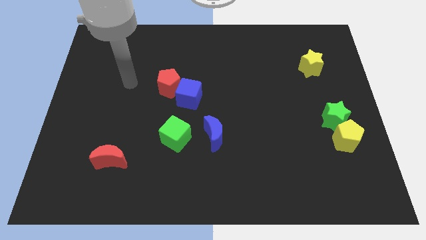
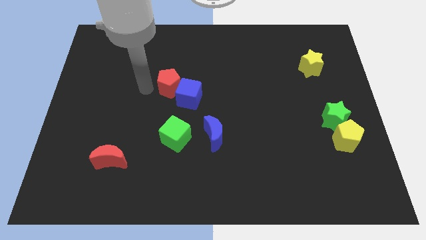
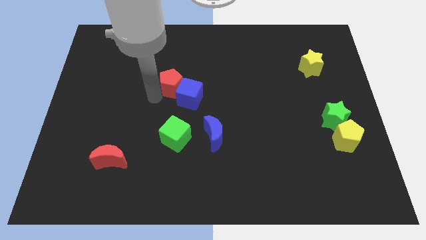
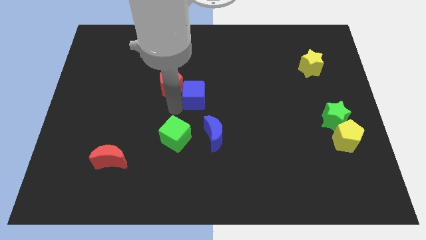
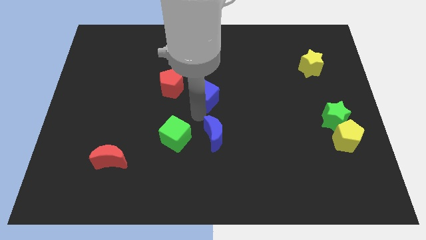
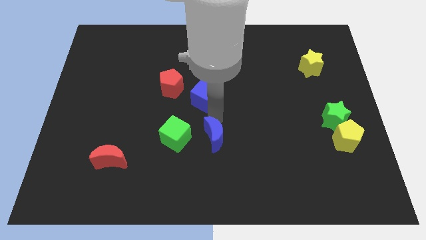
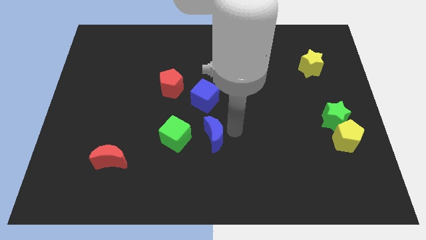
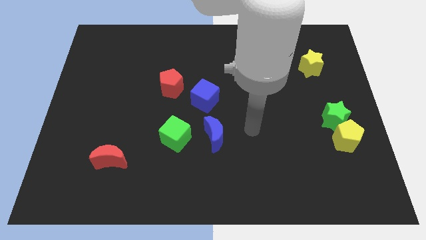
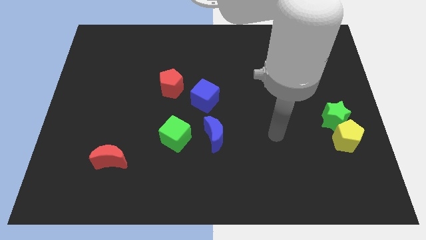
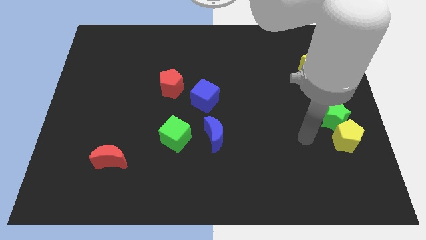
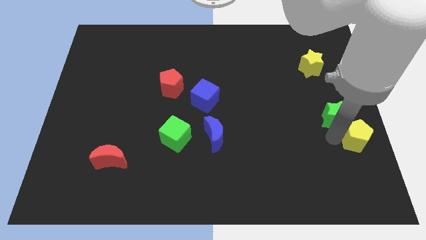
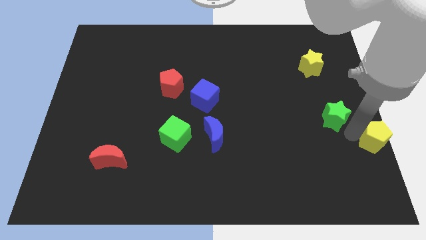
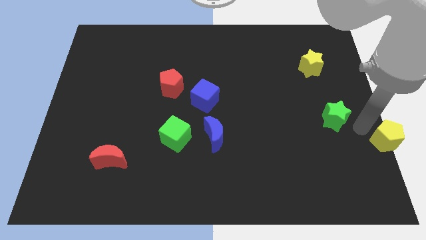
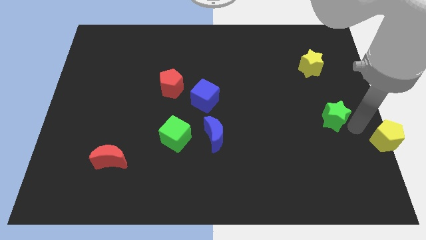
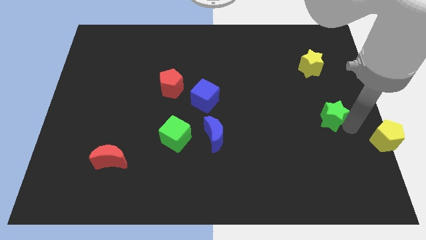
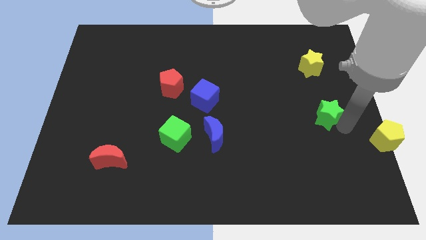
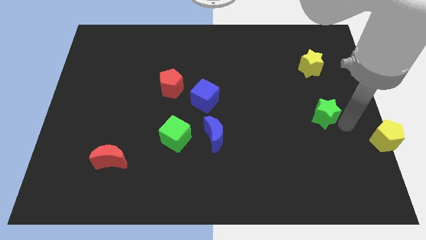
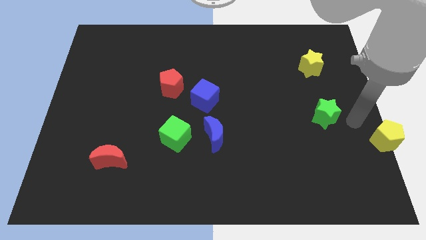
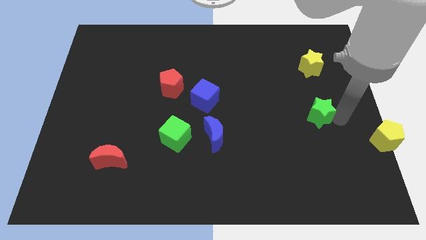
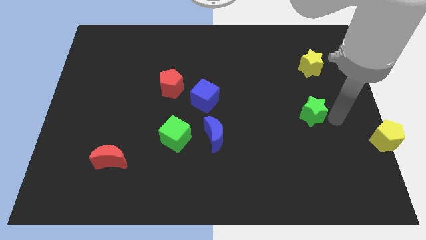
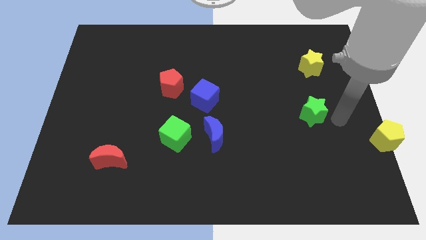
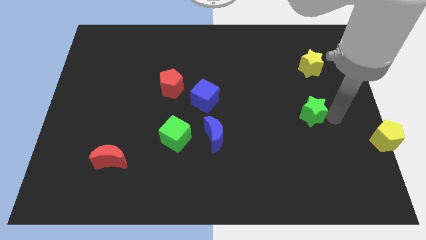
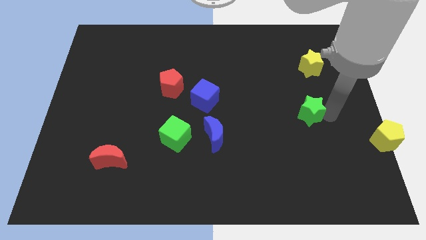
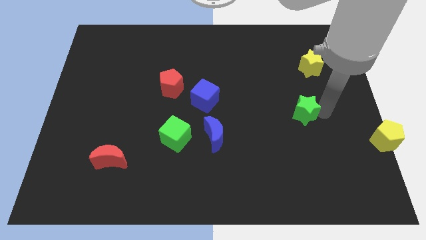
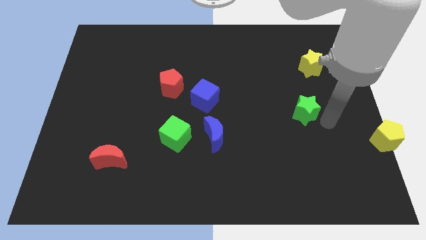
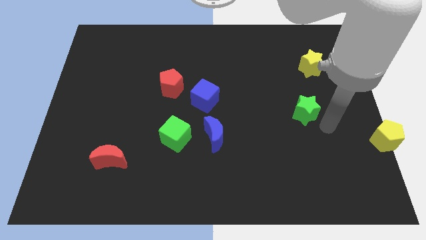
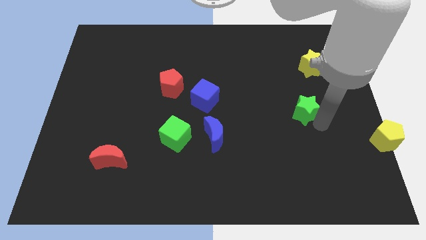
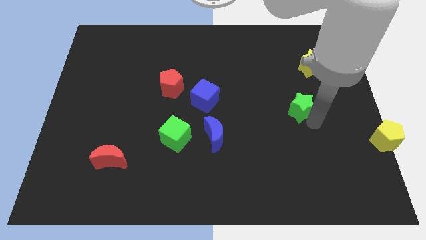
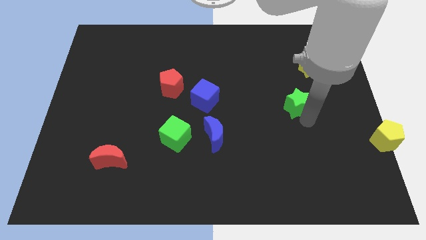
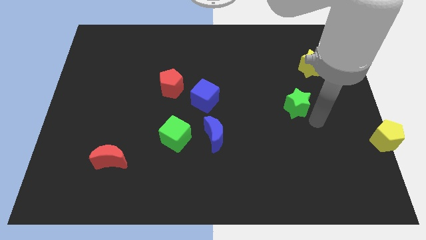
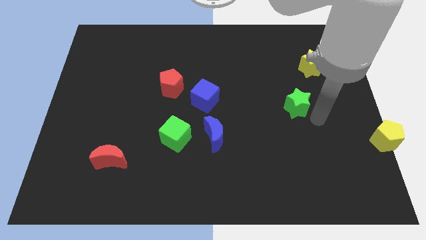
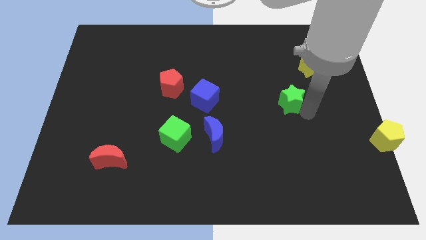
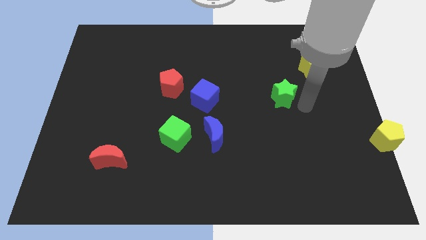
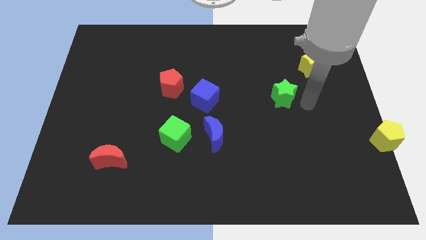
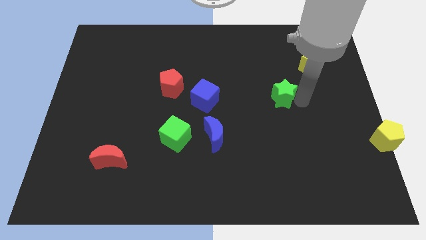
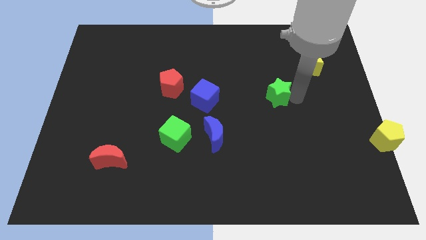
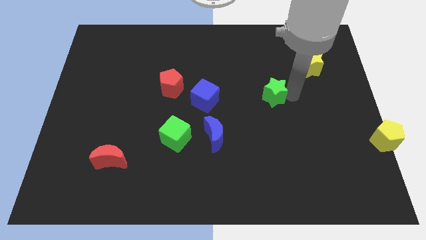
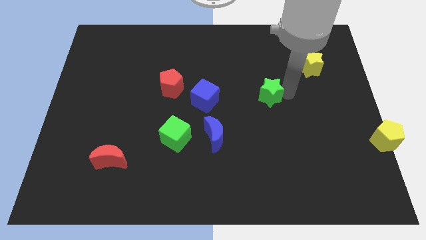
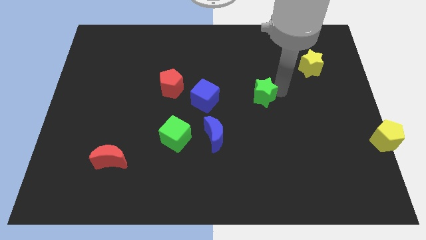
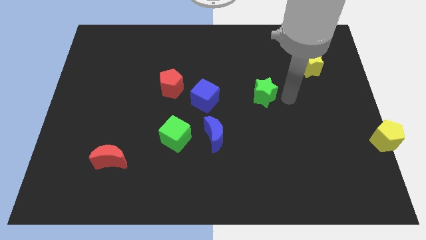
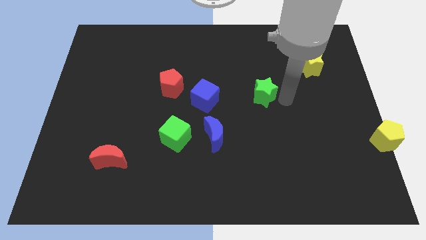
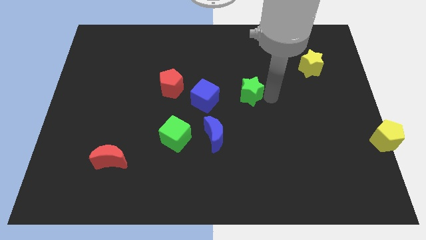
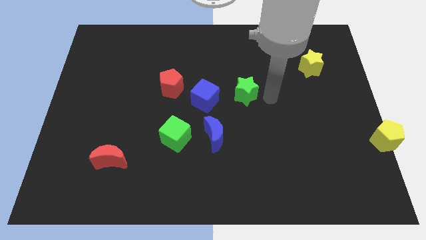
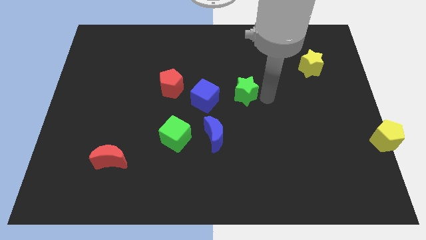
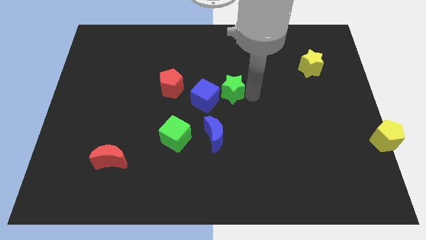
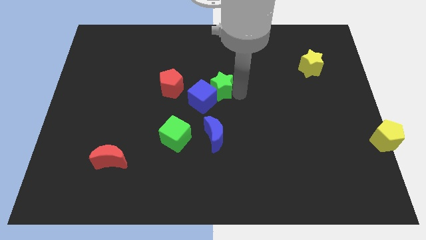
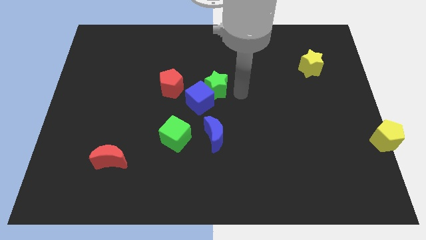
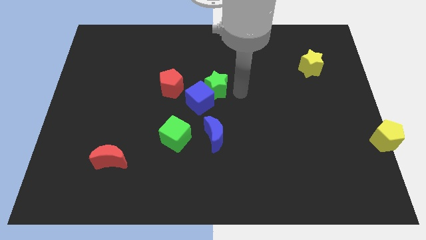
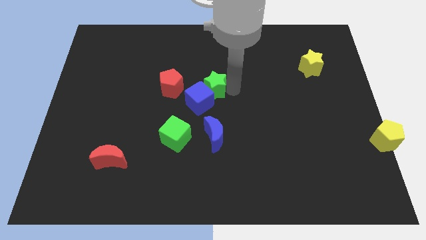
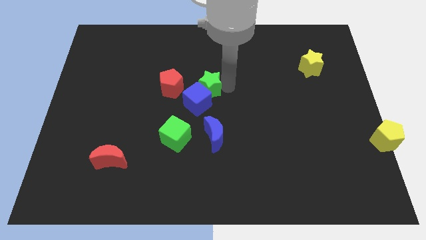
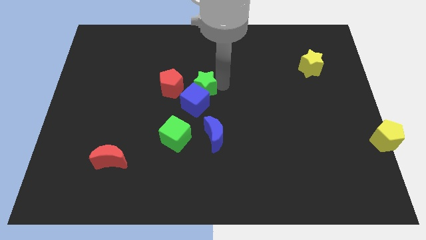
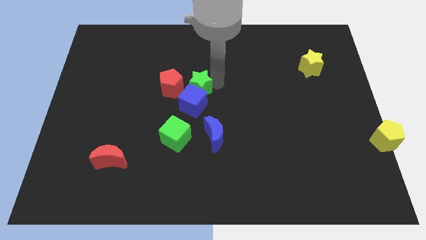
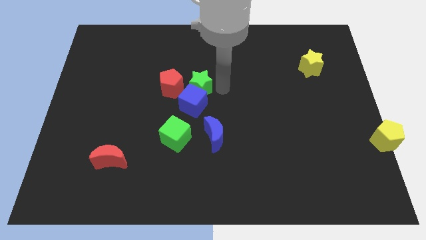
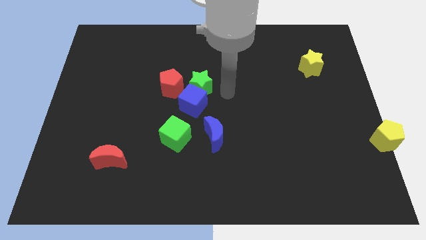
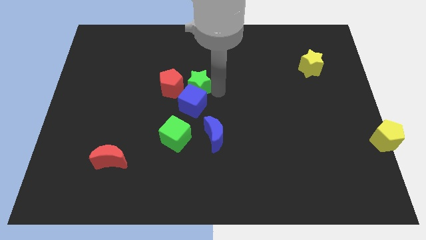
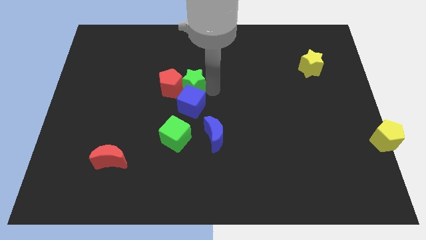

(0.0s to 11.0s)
put the green star towards the red pentagon

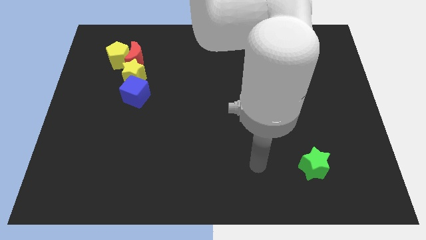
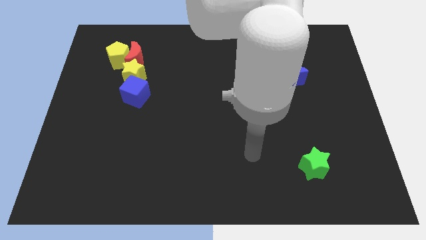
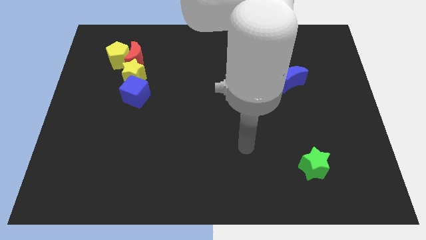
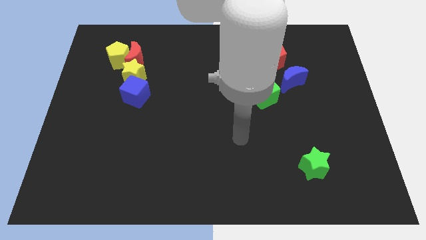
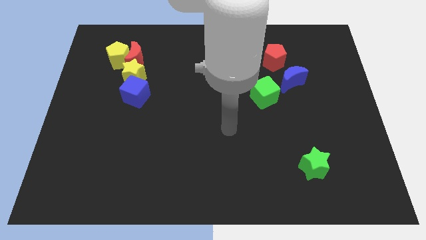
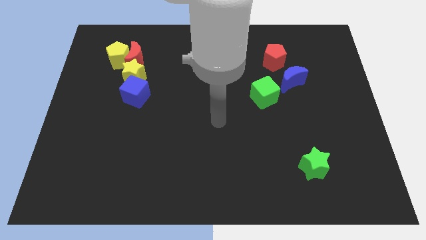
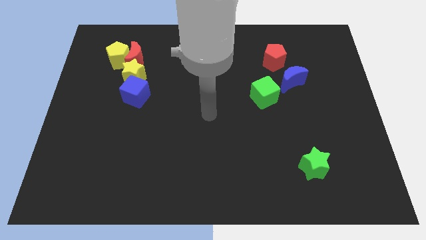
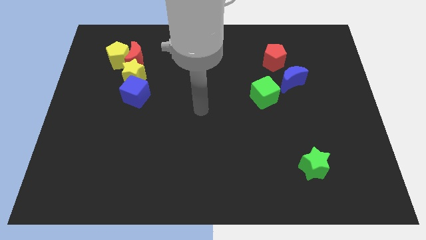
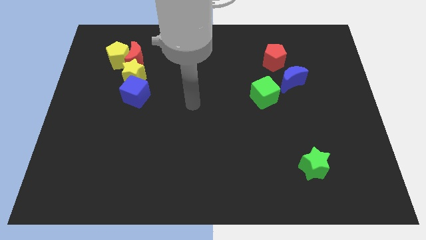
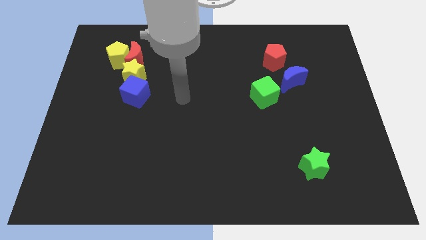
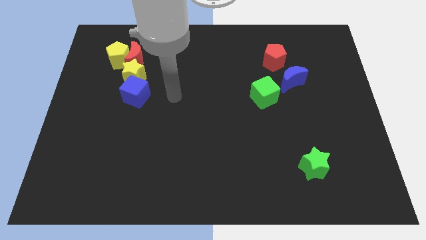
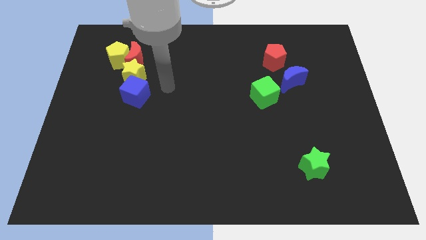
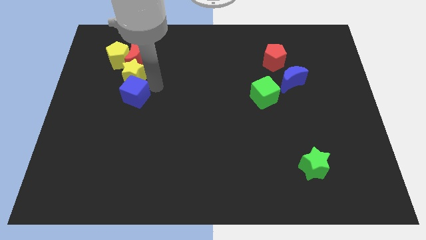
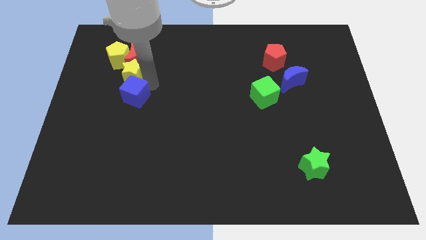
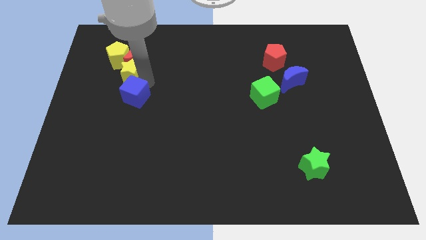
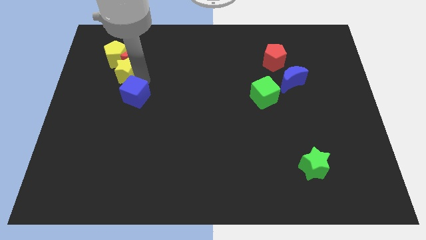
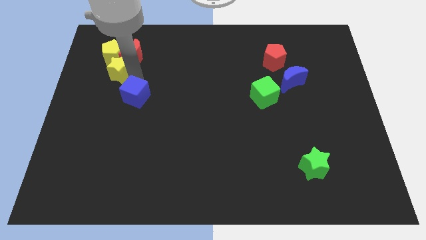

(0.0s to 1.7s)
push the yellow star towards the yellow pentagon
